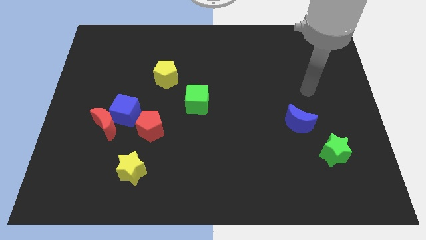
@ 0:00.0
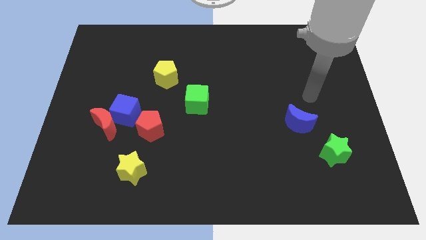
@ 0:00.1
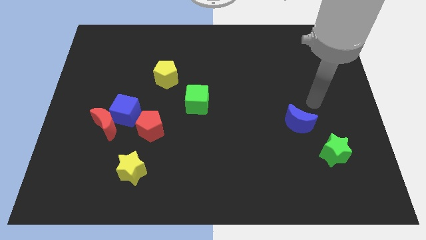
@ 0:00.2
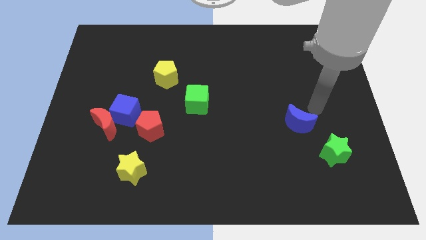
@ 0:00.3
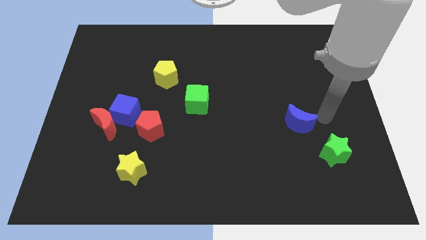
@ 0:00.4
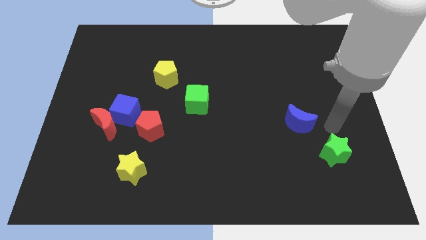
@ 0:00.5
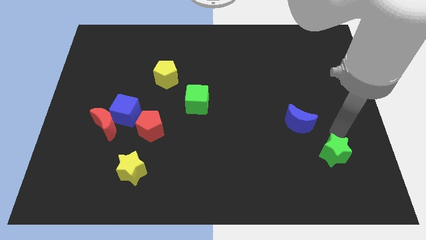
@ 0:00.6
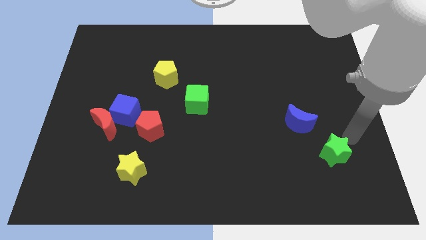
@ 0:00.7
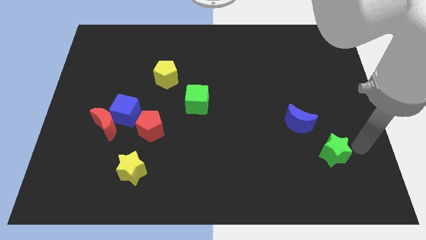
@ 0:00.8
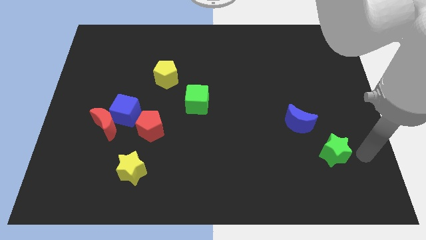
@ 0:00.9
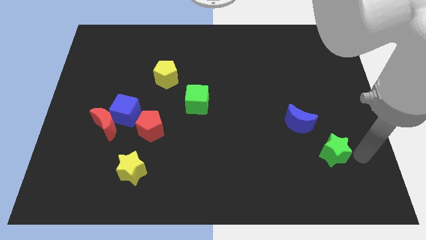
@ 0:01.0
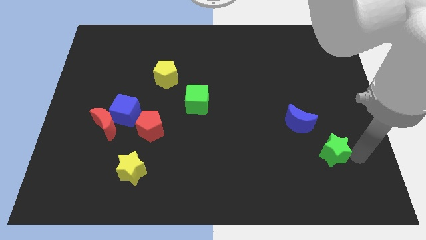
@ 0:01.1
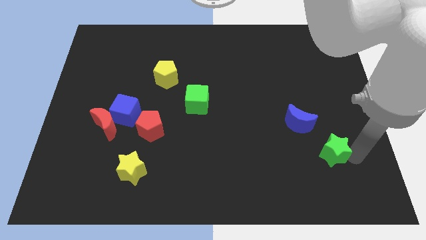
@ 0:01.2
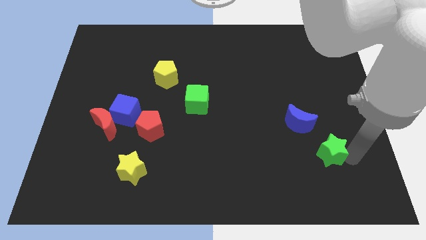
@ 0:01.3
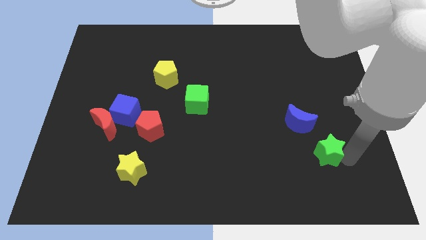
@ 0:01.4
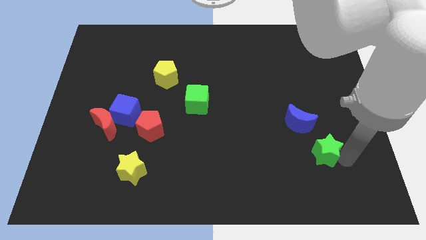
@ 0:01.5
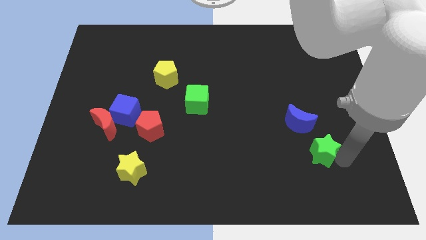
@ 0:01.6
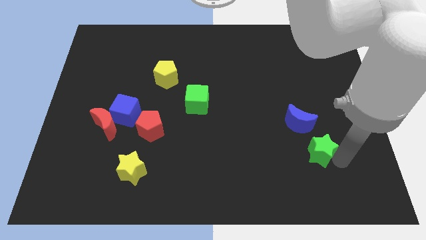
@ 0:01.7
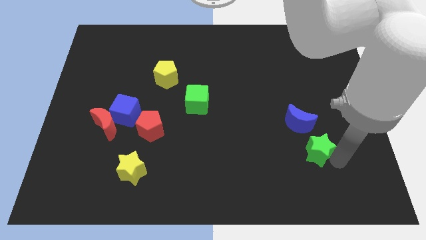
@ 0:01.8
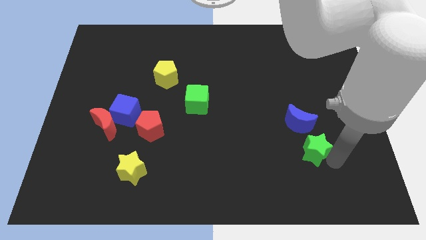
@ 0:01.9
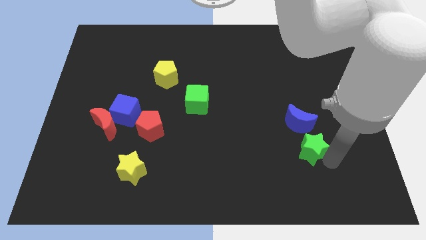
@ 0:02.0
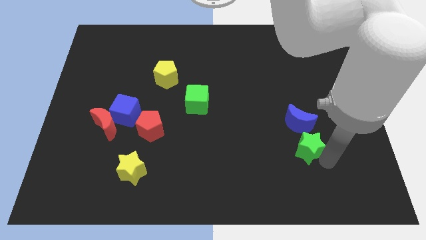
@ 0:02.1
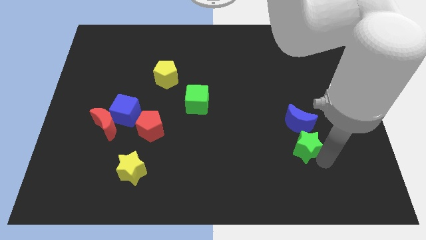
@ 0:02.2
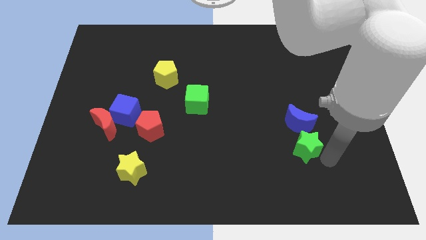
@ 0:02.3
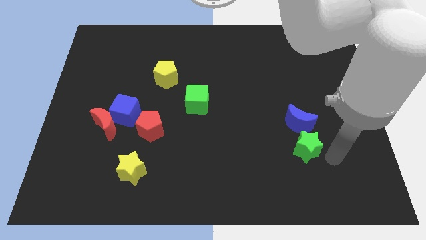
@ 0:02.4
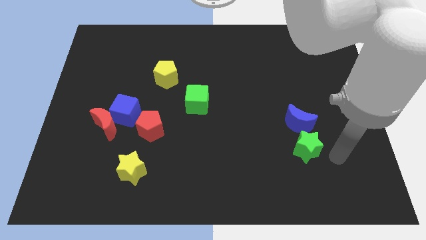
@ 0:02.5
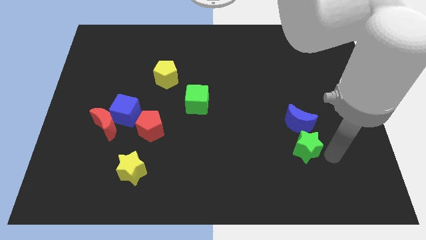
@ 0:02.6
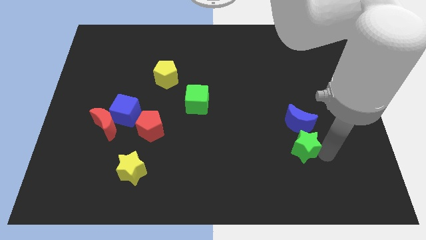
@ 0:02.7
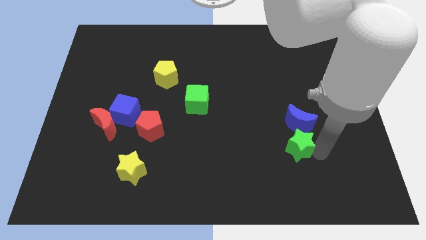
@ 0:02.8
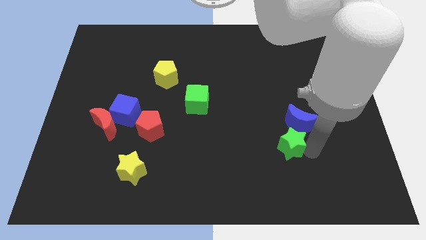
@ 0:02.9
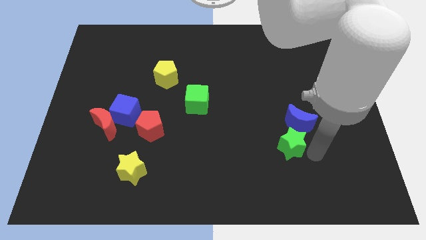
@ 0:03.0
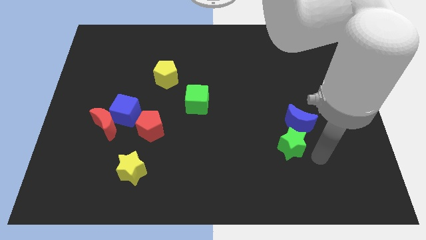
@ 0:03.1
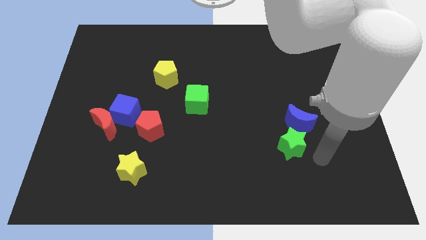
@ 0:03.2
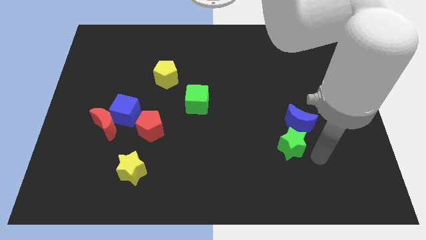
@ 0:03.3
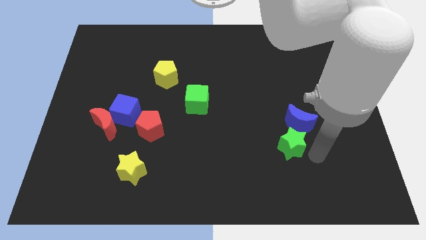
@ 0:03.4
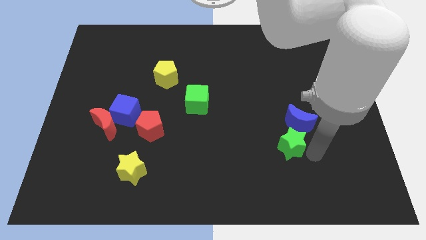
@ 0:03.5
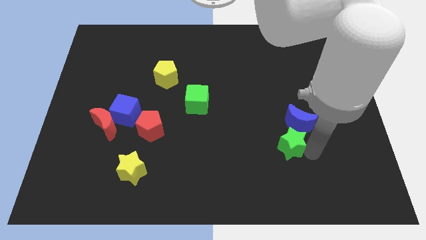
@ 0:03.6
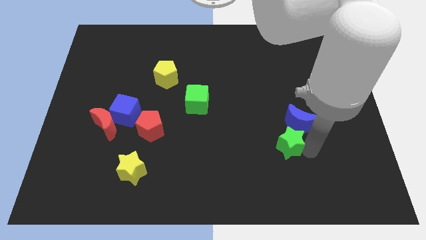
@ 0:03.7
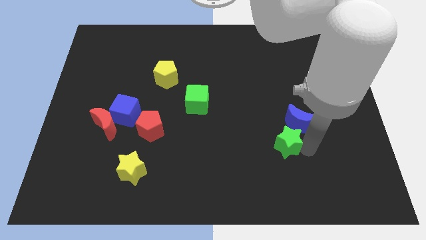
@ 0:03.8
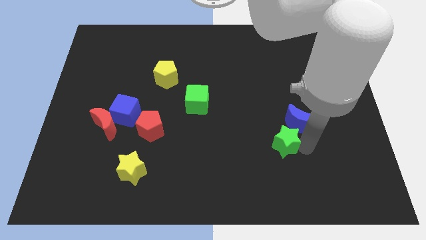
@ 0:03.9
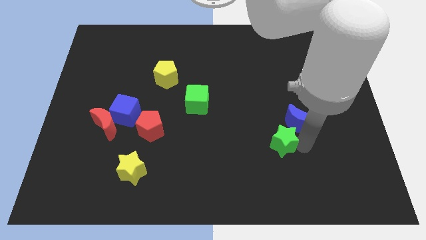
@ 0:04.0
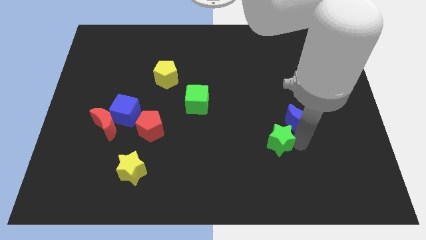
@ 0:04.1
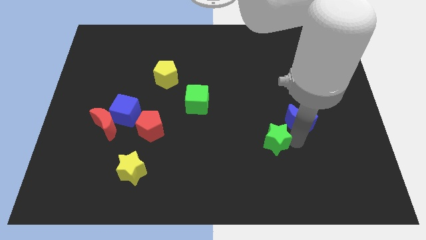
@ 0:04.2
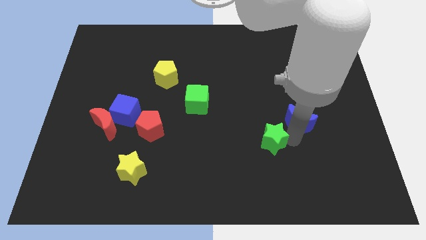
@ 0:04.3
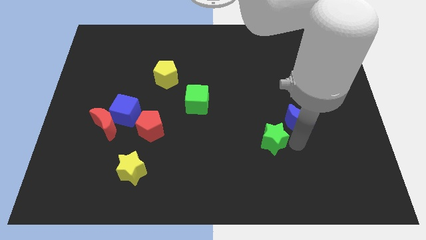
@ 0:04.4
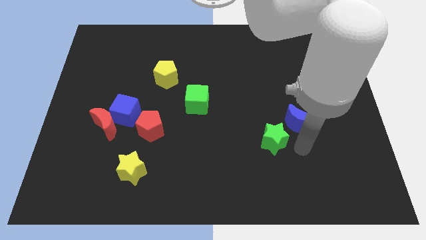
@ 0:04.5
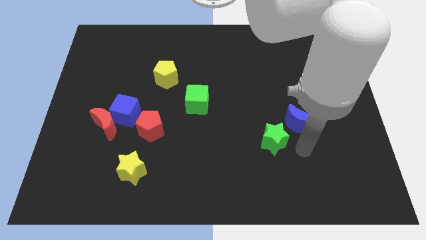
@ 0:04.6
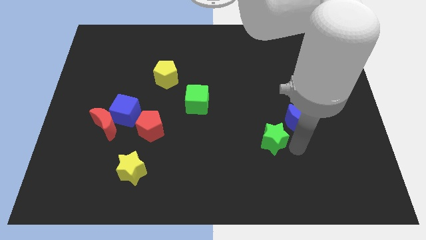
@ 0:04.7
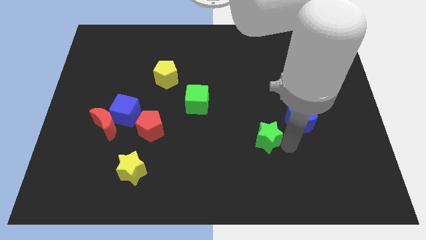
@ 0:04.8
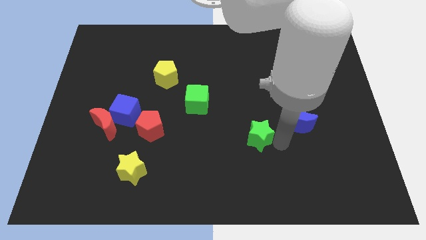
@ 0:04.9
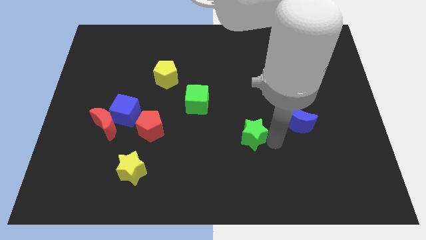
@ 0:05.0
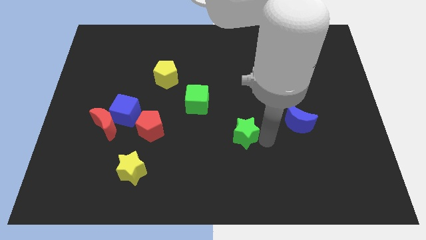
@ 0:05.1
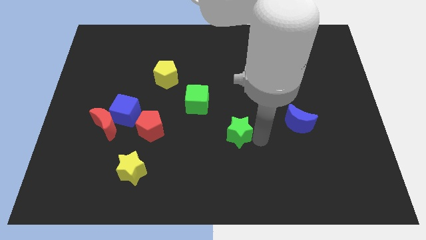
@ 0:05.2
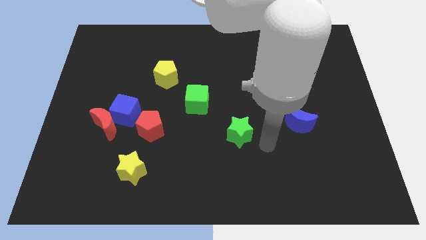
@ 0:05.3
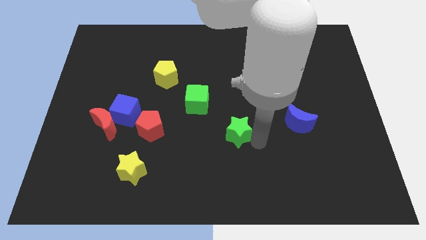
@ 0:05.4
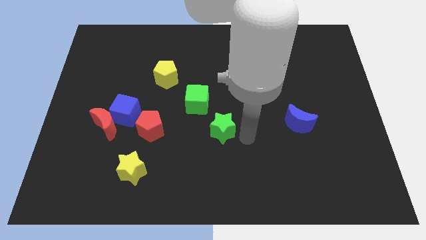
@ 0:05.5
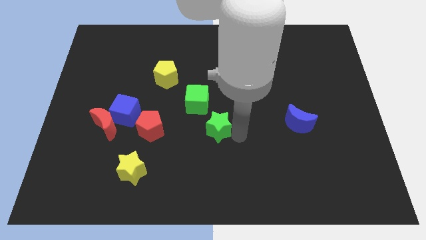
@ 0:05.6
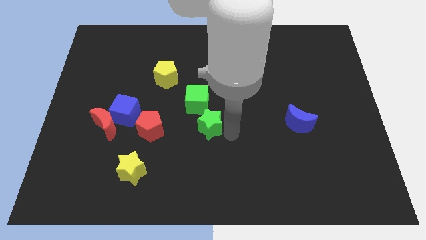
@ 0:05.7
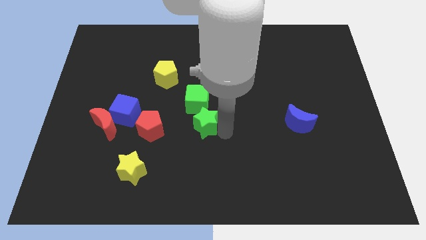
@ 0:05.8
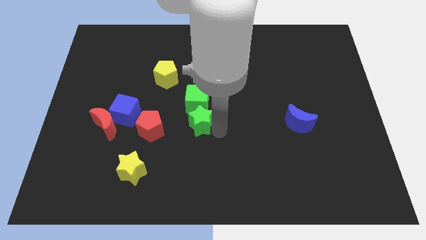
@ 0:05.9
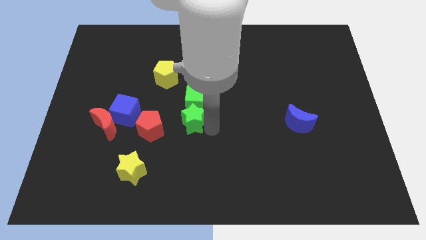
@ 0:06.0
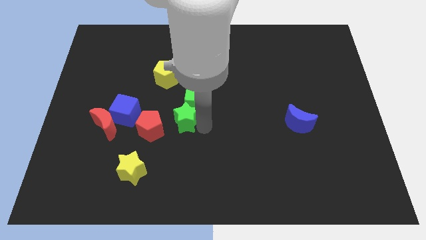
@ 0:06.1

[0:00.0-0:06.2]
put the green star to the top right of the red pentagon

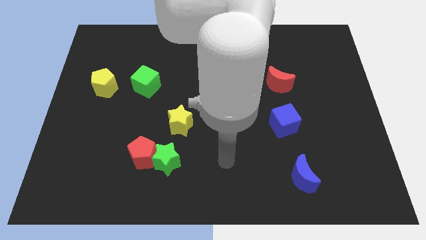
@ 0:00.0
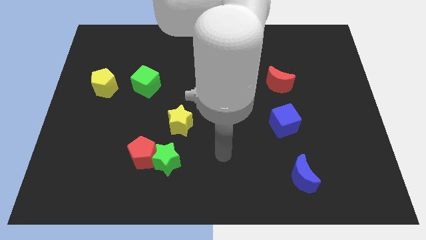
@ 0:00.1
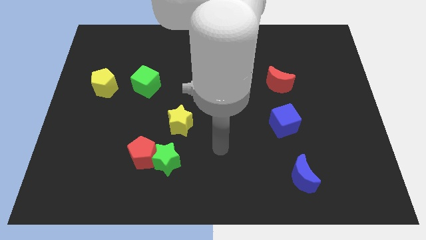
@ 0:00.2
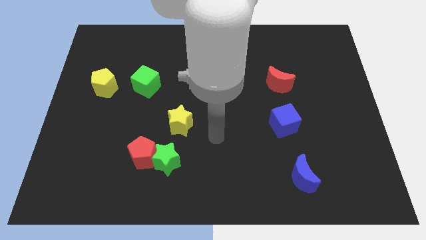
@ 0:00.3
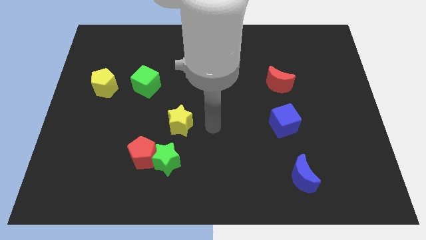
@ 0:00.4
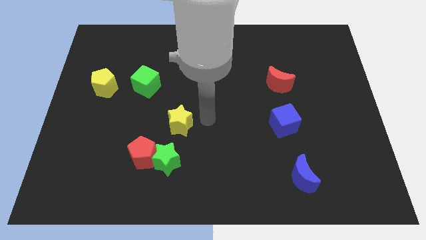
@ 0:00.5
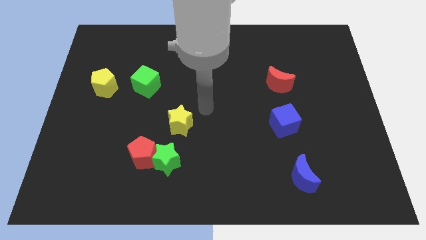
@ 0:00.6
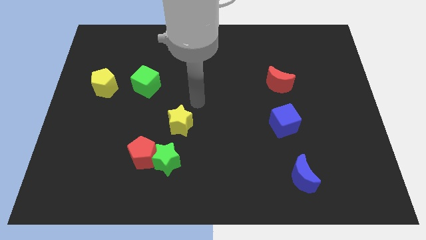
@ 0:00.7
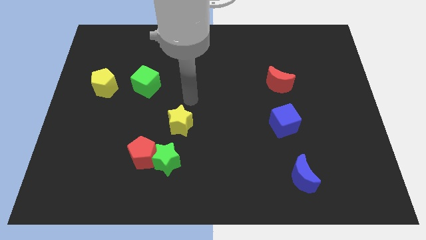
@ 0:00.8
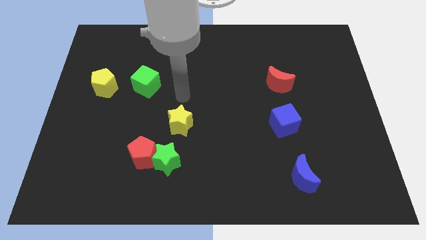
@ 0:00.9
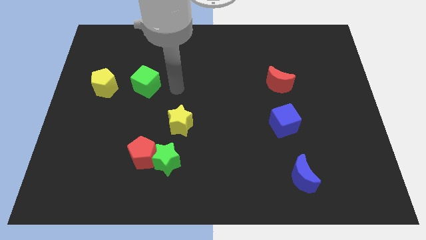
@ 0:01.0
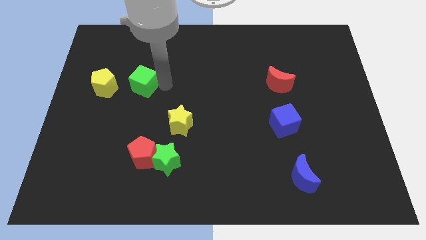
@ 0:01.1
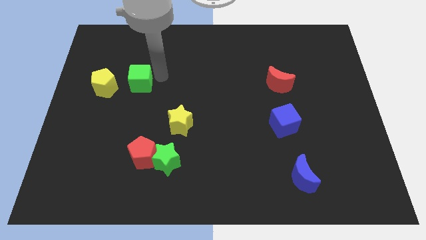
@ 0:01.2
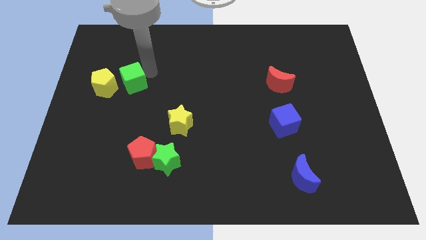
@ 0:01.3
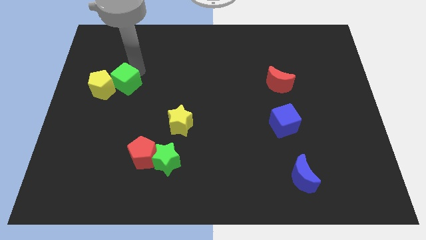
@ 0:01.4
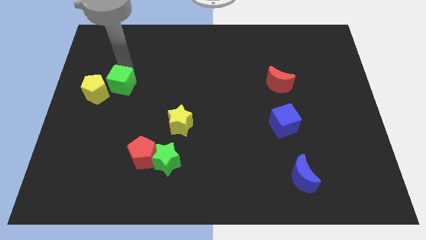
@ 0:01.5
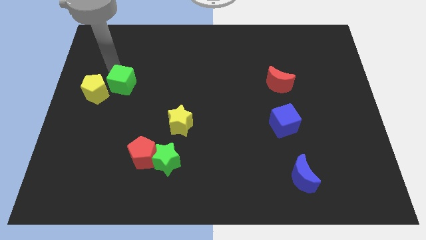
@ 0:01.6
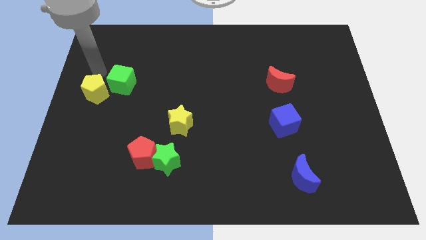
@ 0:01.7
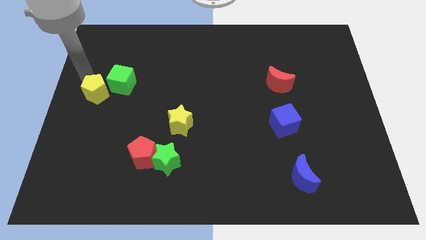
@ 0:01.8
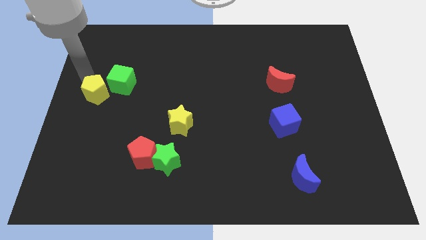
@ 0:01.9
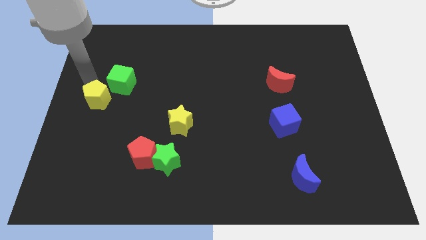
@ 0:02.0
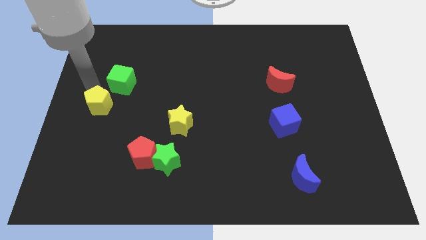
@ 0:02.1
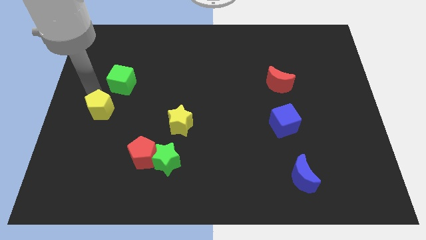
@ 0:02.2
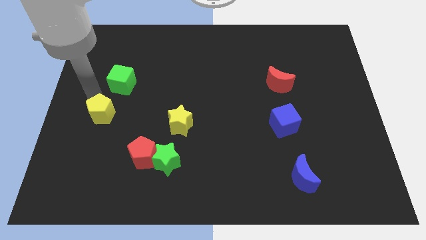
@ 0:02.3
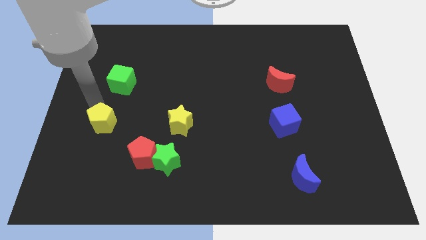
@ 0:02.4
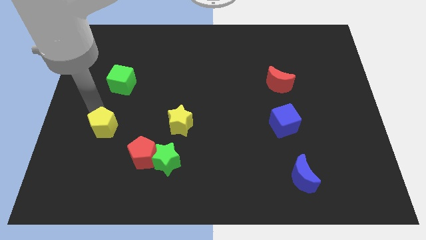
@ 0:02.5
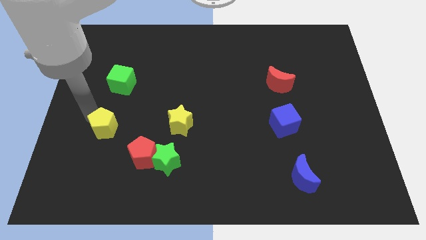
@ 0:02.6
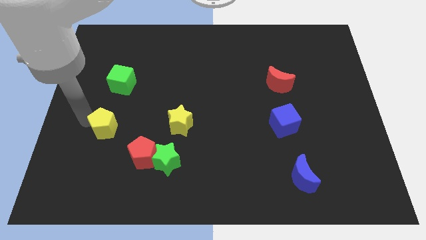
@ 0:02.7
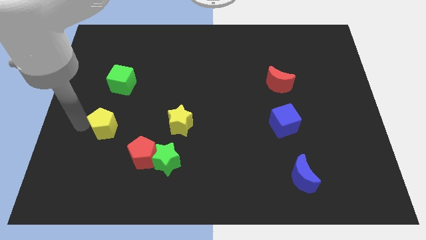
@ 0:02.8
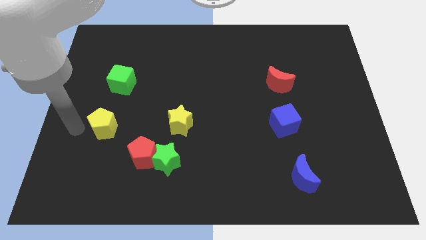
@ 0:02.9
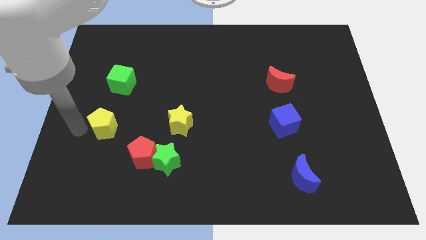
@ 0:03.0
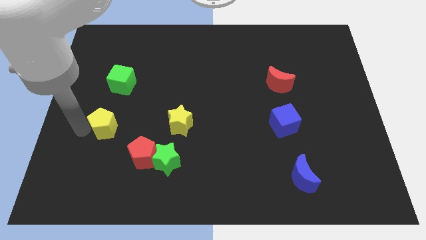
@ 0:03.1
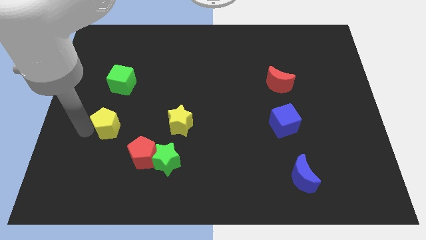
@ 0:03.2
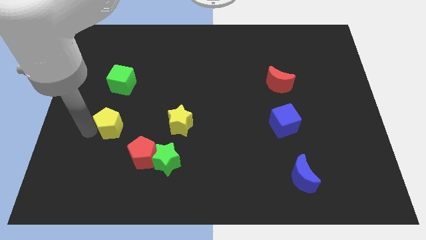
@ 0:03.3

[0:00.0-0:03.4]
push the yellow pentagon to the left of the yellow star
